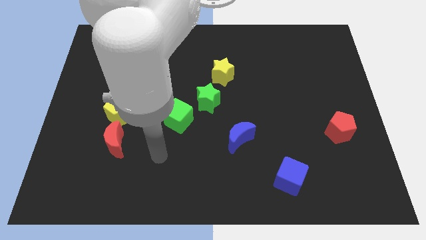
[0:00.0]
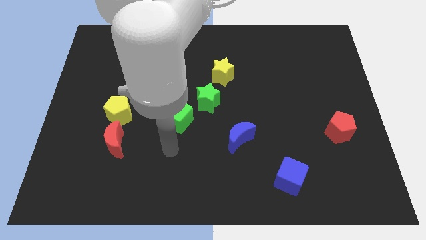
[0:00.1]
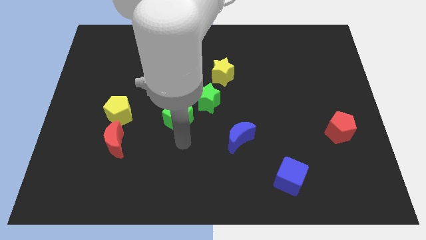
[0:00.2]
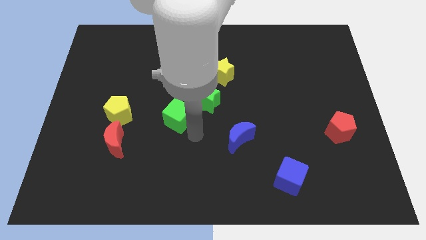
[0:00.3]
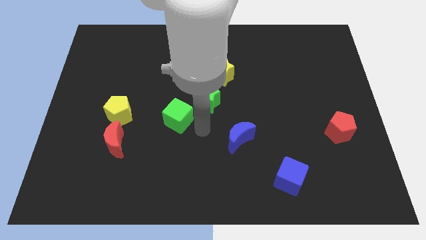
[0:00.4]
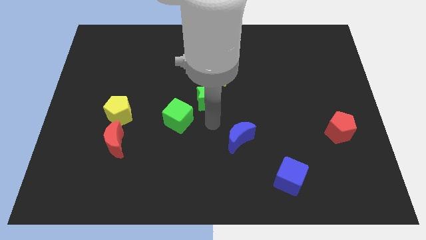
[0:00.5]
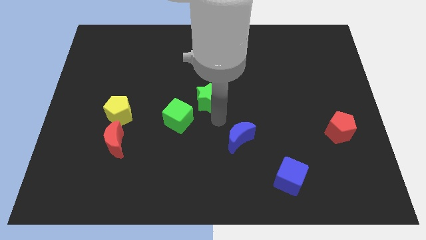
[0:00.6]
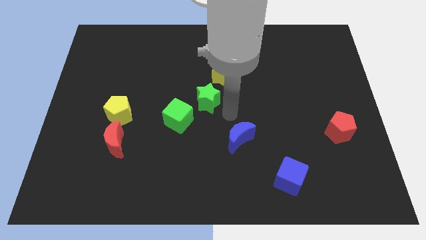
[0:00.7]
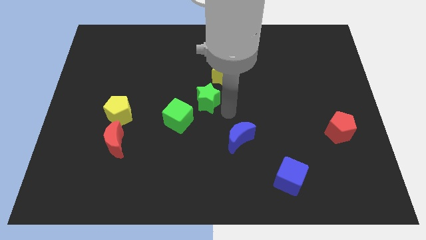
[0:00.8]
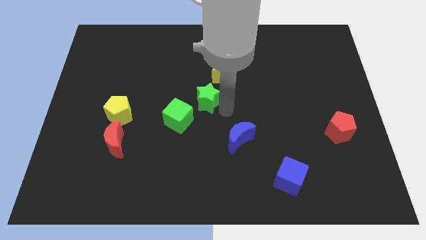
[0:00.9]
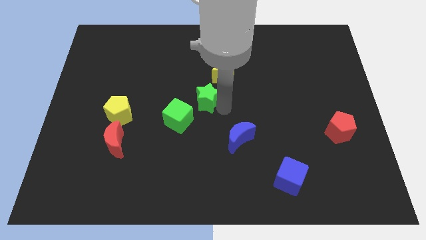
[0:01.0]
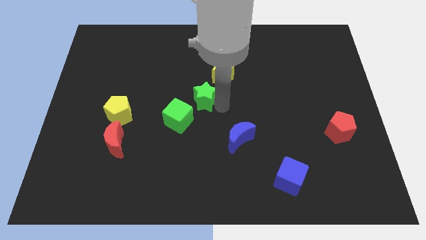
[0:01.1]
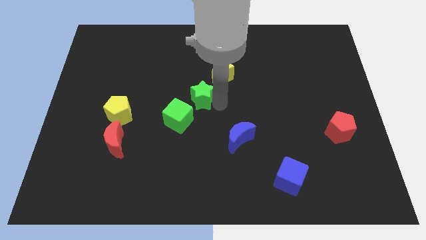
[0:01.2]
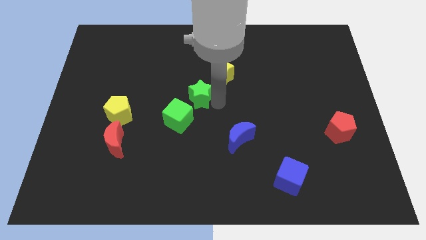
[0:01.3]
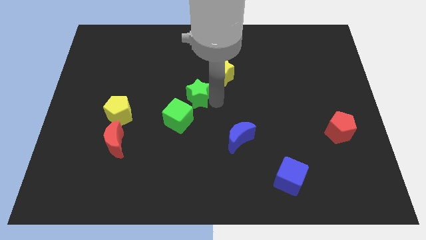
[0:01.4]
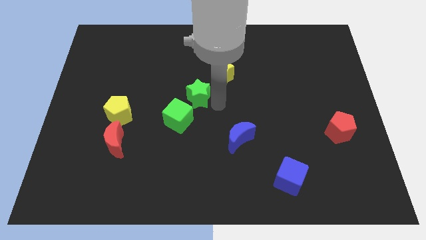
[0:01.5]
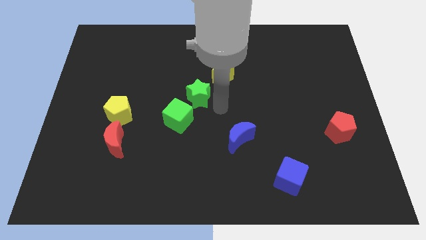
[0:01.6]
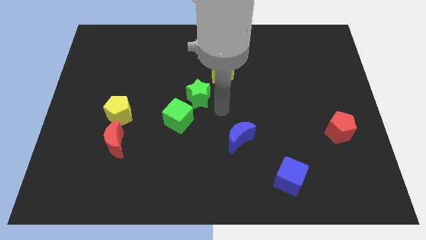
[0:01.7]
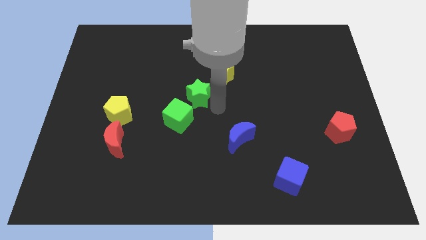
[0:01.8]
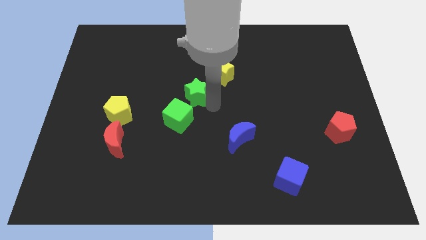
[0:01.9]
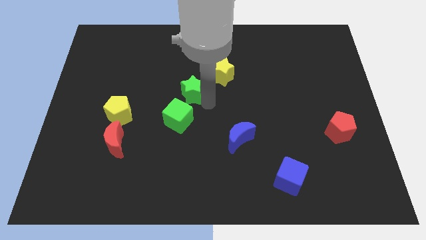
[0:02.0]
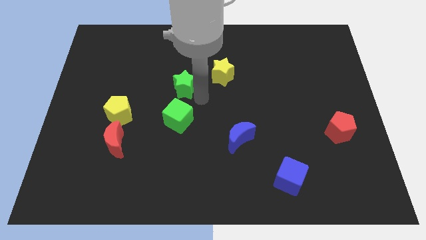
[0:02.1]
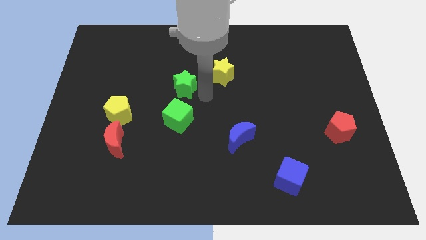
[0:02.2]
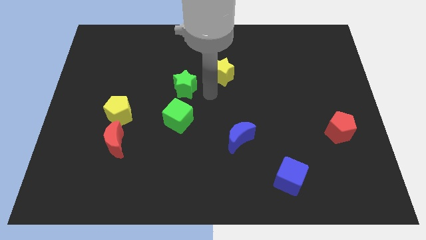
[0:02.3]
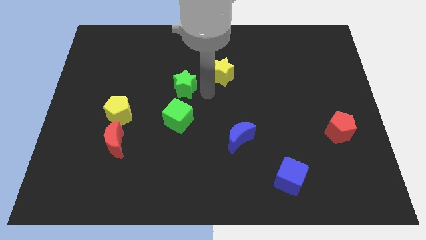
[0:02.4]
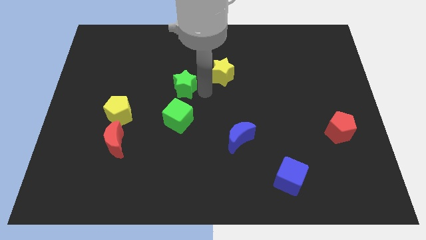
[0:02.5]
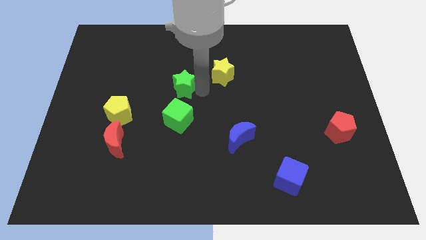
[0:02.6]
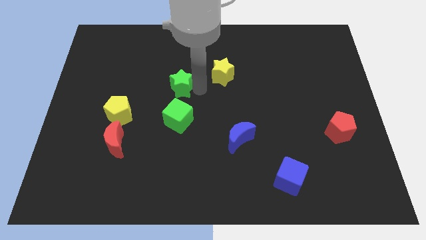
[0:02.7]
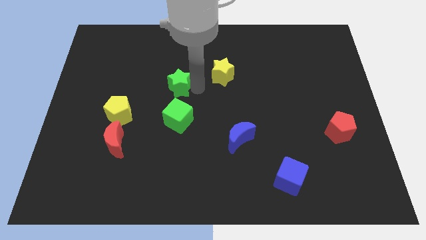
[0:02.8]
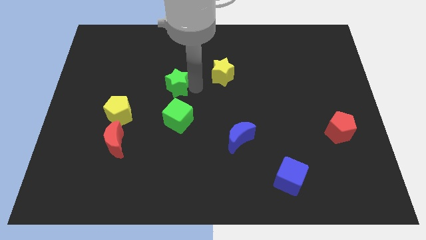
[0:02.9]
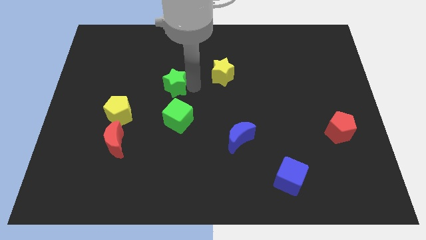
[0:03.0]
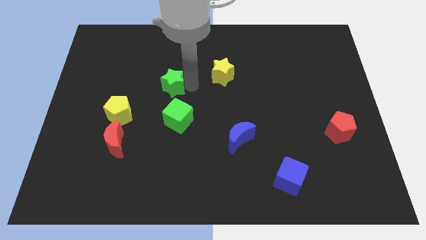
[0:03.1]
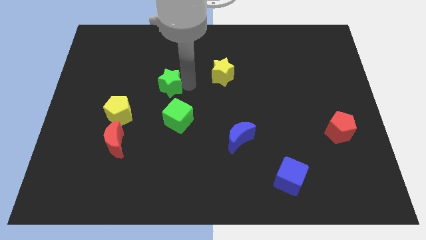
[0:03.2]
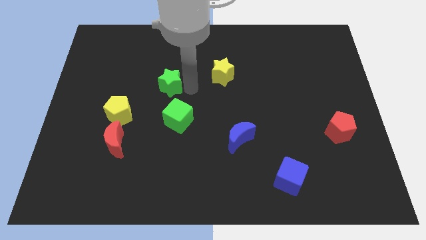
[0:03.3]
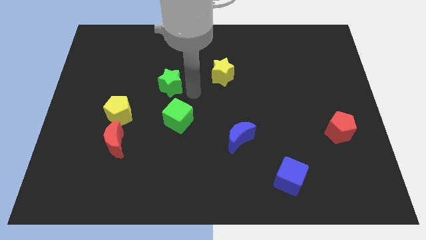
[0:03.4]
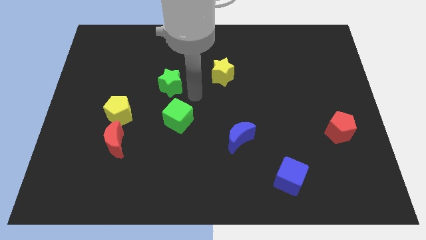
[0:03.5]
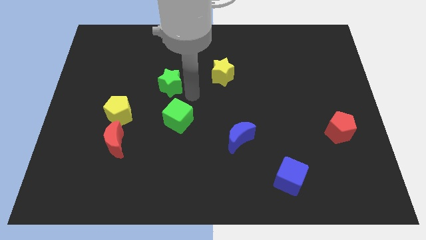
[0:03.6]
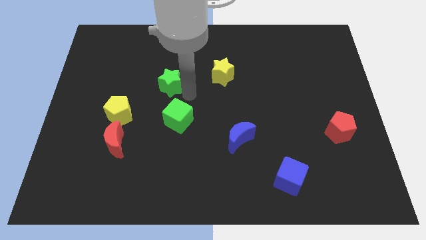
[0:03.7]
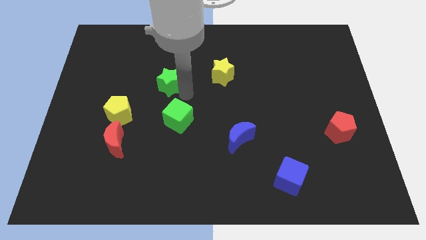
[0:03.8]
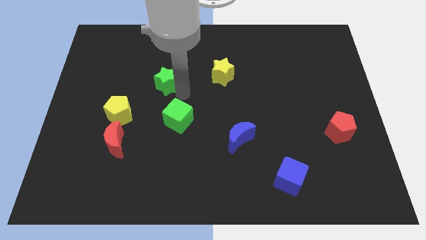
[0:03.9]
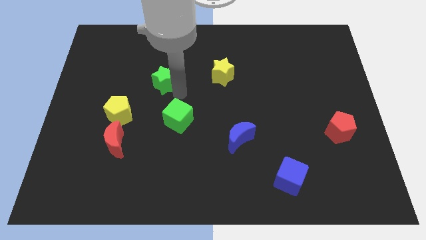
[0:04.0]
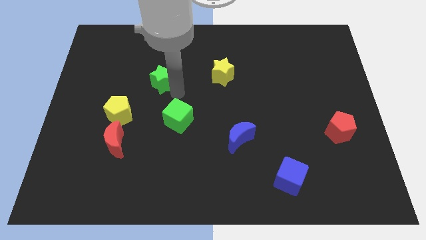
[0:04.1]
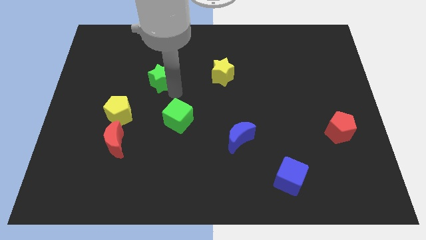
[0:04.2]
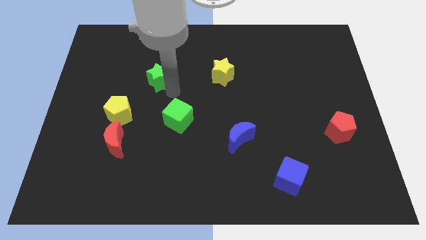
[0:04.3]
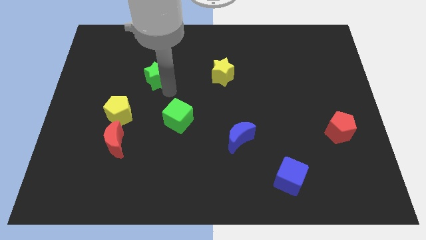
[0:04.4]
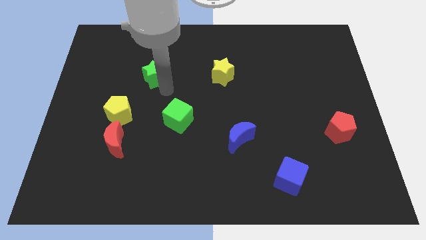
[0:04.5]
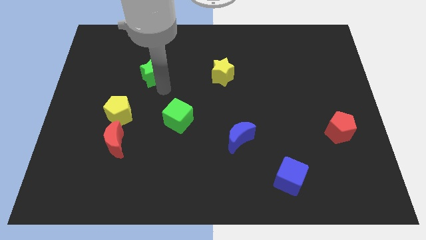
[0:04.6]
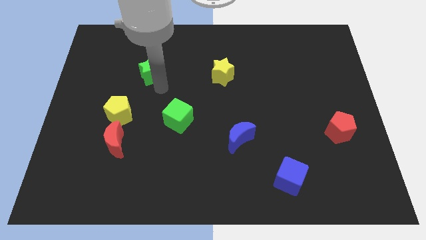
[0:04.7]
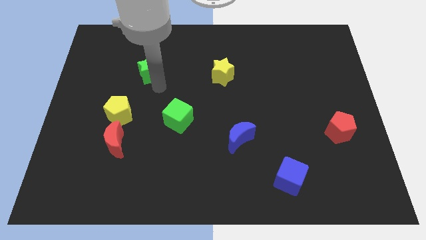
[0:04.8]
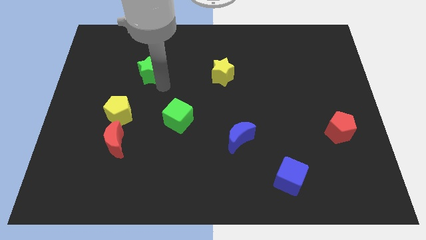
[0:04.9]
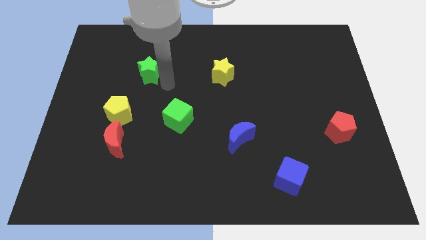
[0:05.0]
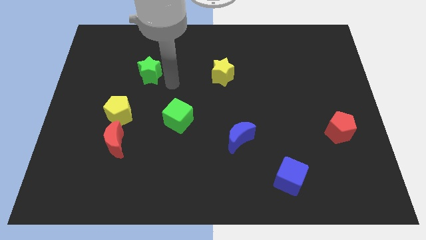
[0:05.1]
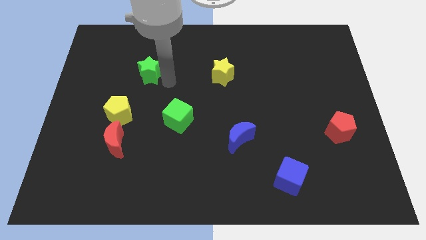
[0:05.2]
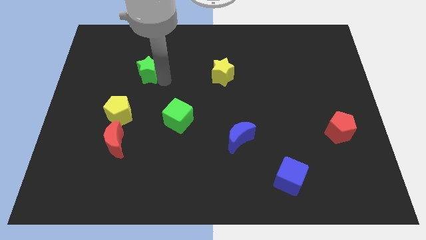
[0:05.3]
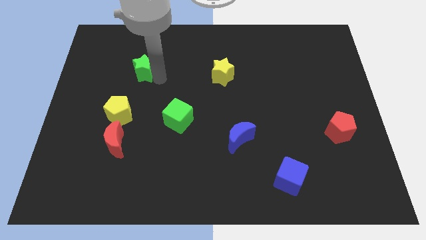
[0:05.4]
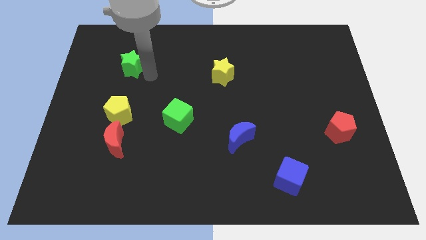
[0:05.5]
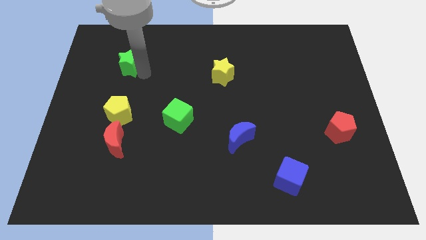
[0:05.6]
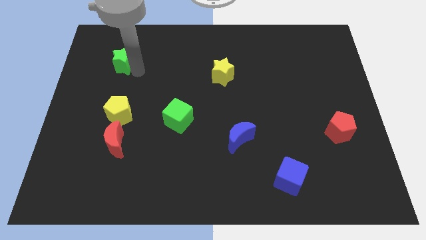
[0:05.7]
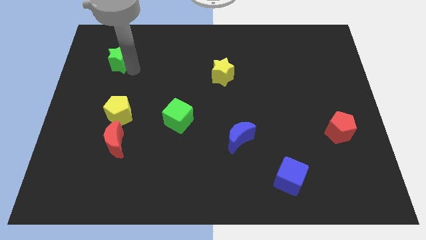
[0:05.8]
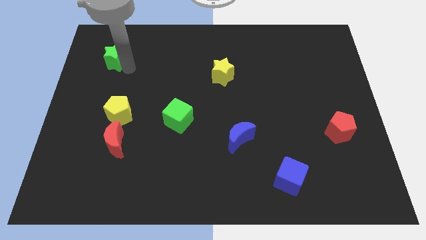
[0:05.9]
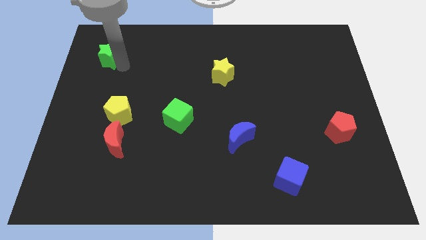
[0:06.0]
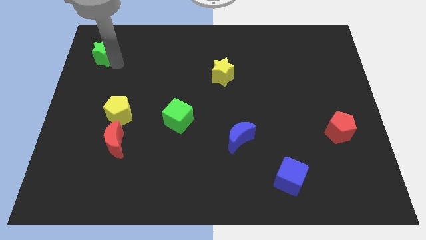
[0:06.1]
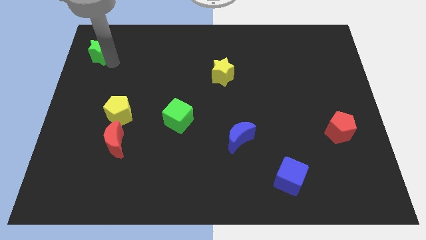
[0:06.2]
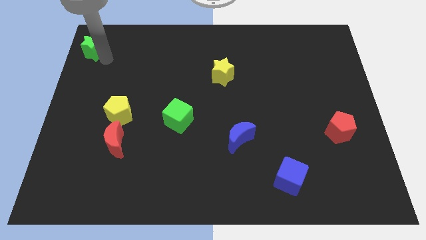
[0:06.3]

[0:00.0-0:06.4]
slide the green star to the upper left corner

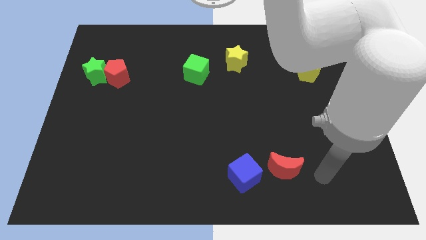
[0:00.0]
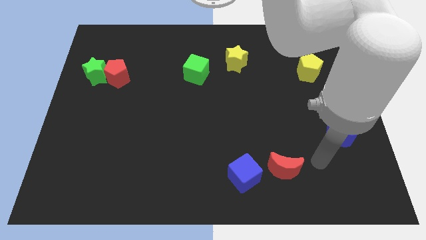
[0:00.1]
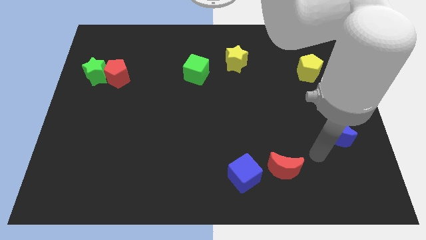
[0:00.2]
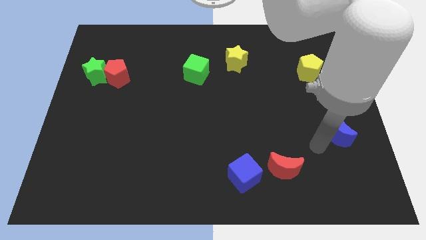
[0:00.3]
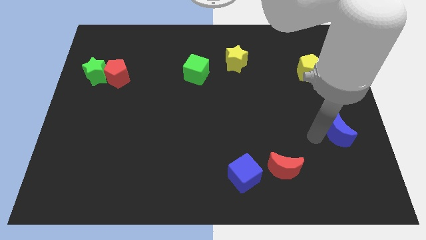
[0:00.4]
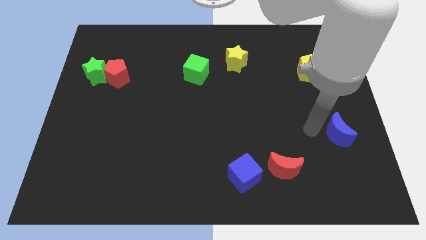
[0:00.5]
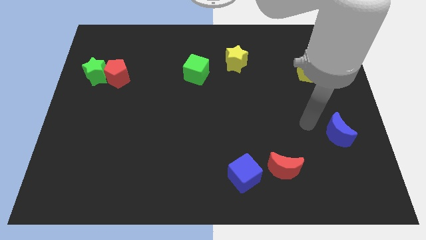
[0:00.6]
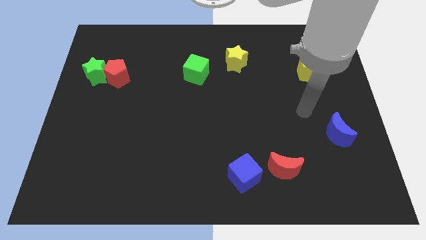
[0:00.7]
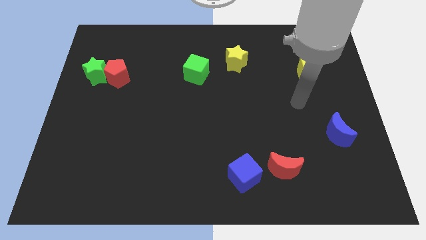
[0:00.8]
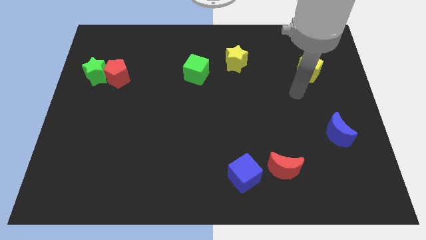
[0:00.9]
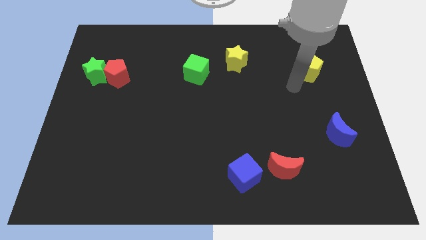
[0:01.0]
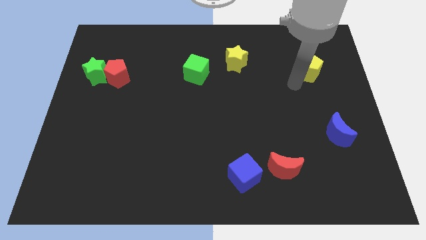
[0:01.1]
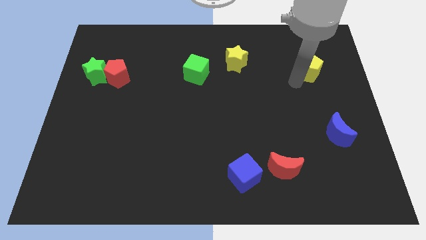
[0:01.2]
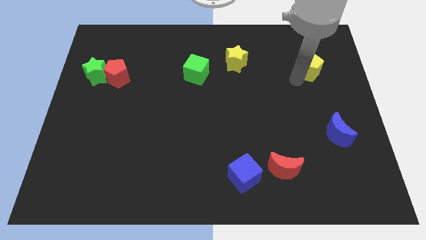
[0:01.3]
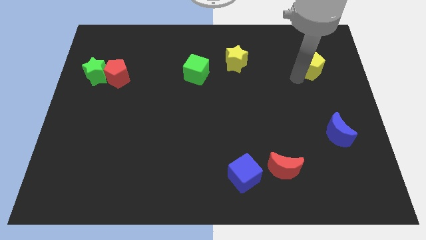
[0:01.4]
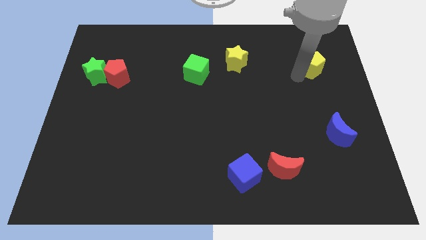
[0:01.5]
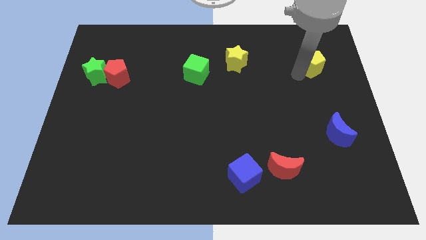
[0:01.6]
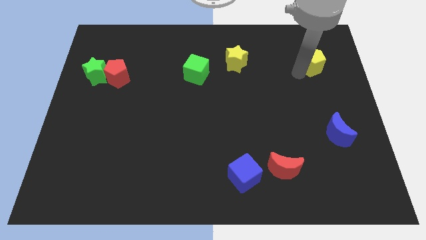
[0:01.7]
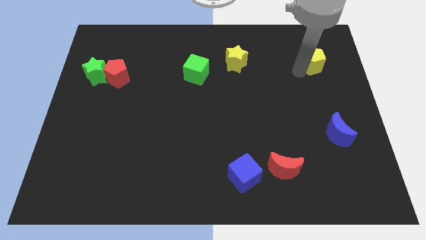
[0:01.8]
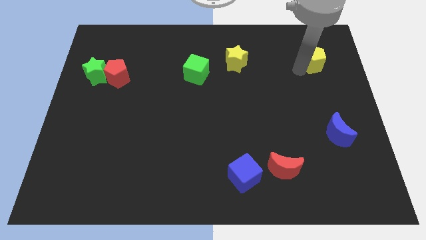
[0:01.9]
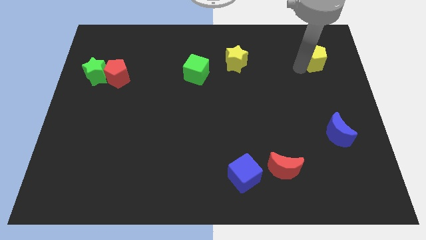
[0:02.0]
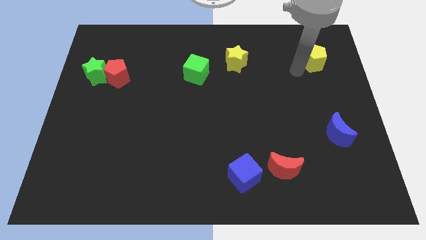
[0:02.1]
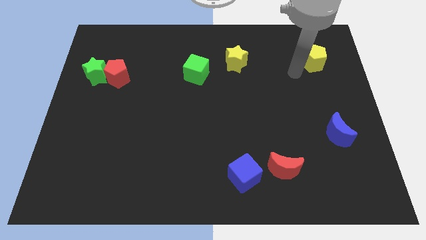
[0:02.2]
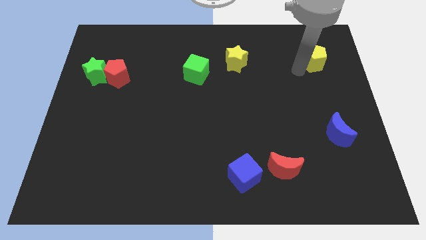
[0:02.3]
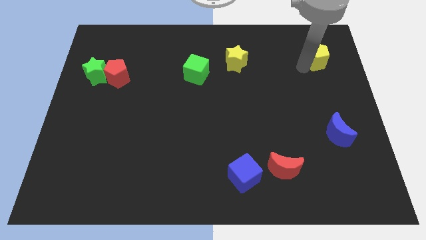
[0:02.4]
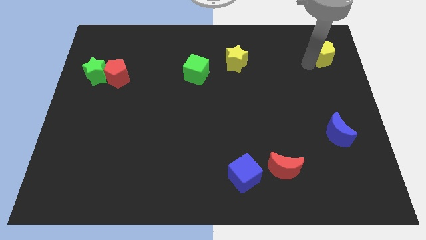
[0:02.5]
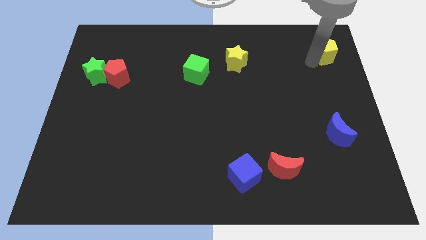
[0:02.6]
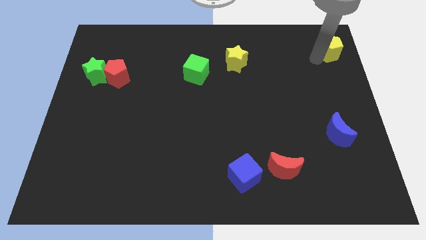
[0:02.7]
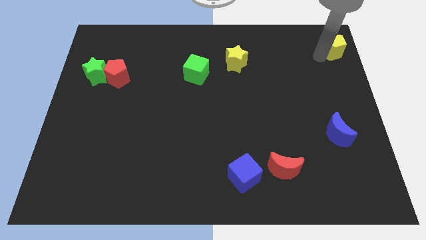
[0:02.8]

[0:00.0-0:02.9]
move the yellow pentagon to the top right corner
